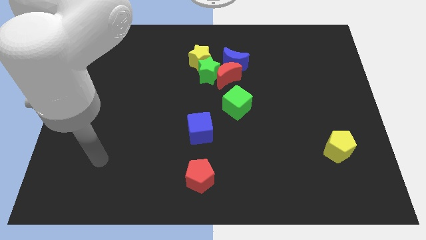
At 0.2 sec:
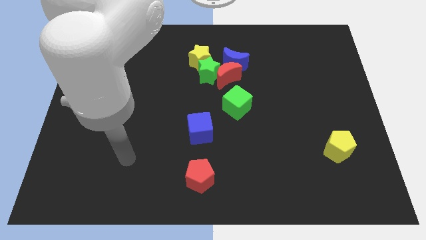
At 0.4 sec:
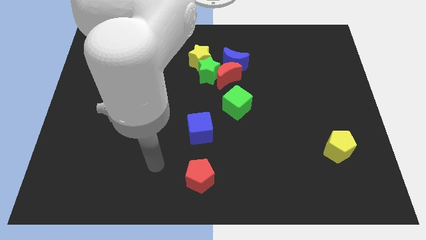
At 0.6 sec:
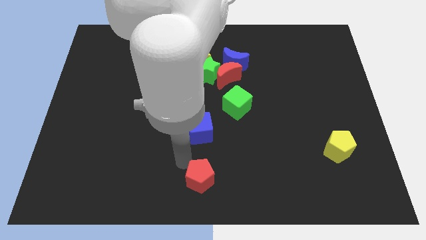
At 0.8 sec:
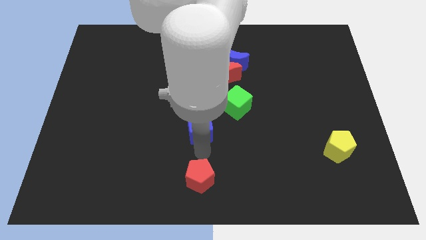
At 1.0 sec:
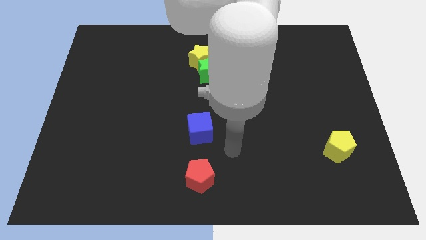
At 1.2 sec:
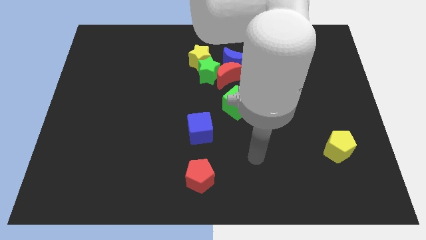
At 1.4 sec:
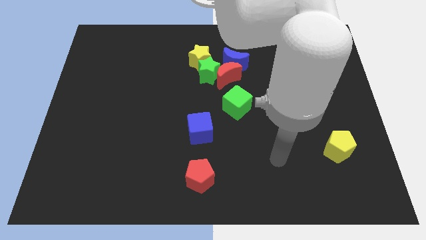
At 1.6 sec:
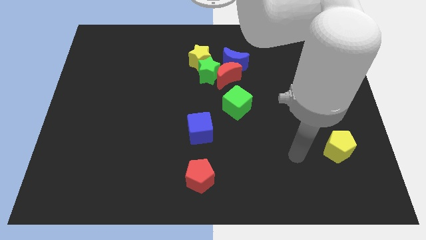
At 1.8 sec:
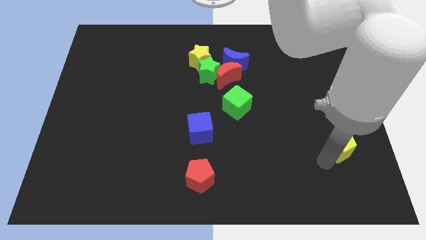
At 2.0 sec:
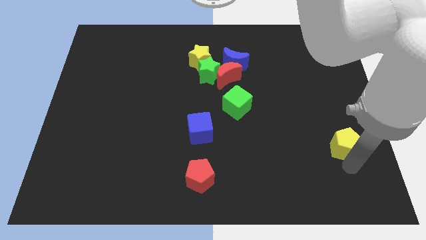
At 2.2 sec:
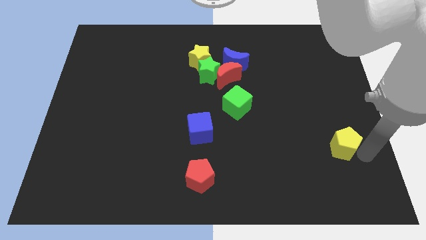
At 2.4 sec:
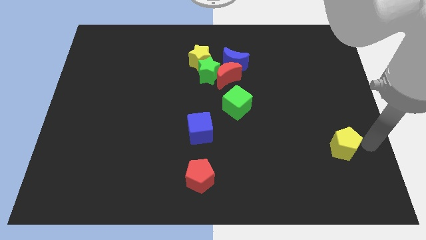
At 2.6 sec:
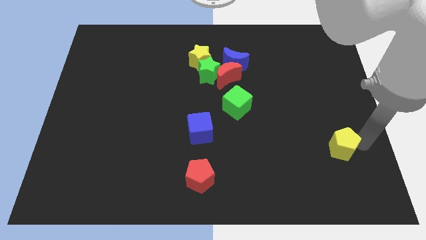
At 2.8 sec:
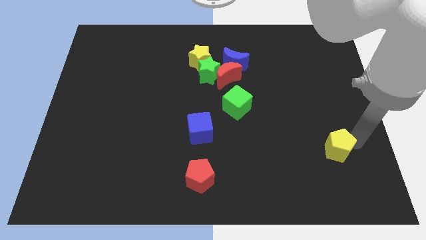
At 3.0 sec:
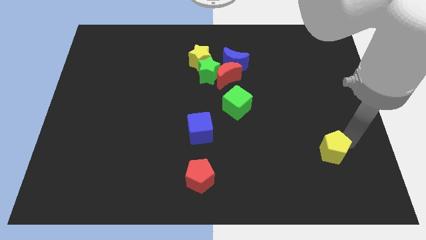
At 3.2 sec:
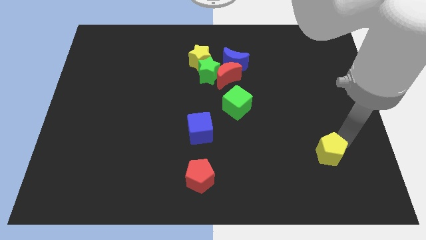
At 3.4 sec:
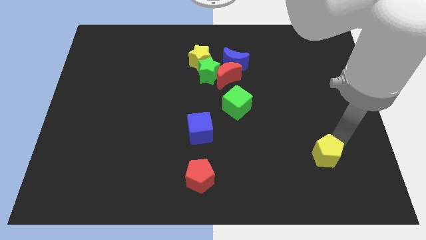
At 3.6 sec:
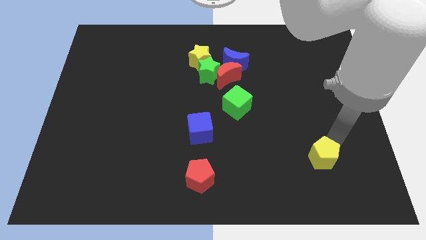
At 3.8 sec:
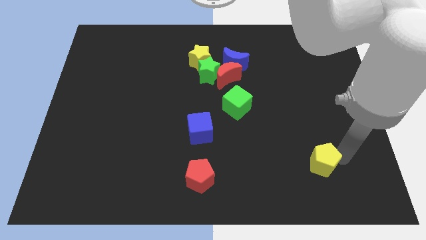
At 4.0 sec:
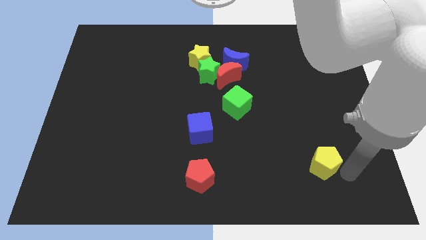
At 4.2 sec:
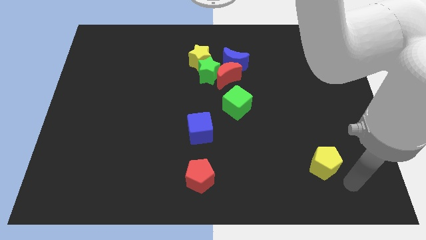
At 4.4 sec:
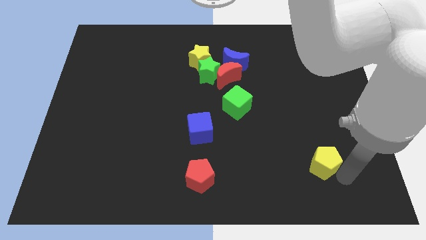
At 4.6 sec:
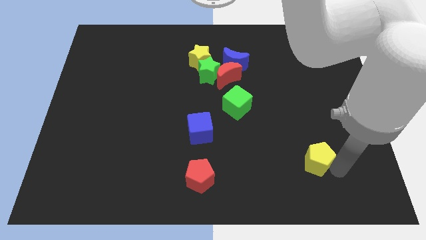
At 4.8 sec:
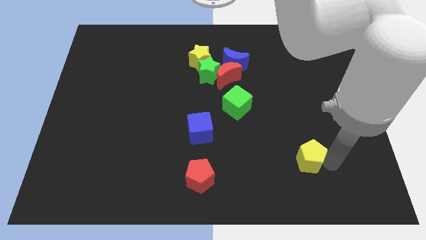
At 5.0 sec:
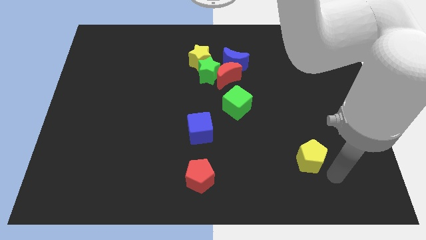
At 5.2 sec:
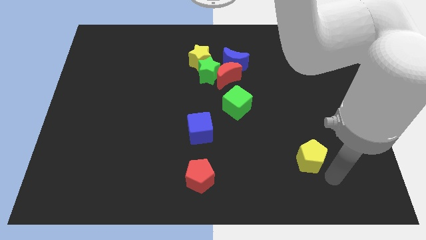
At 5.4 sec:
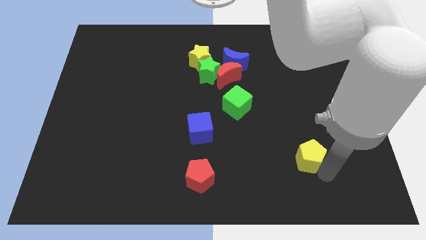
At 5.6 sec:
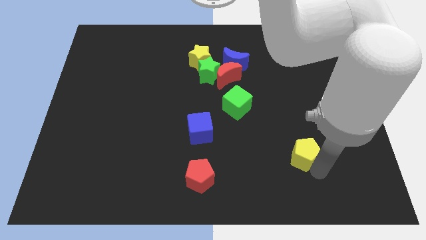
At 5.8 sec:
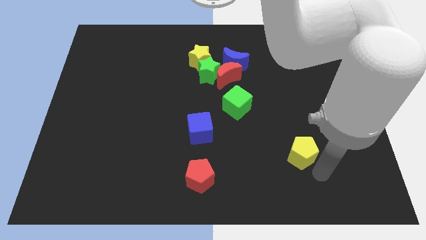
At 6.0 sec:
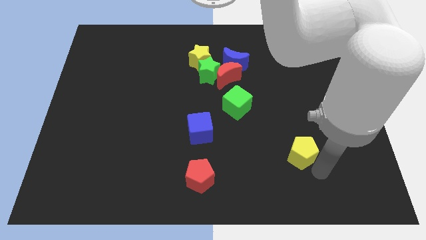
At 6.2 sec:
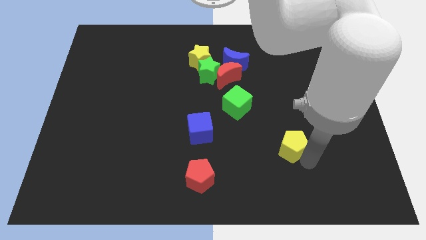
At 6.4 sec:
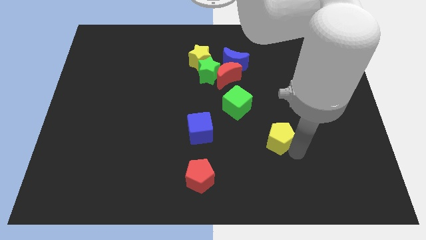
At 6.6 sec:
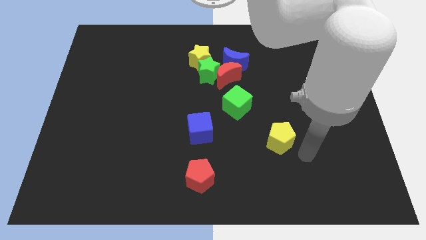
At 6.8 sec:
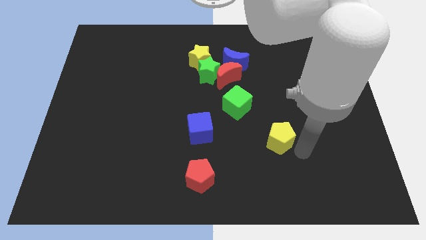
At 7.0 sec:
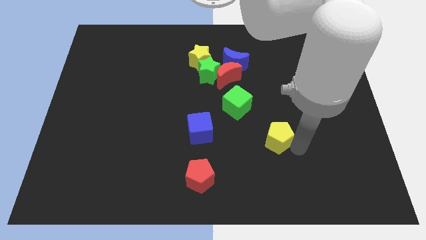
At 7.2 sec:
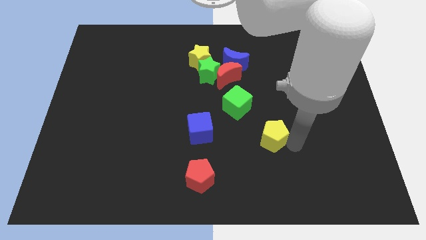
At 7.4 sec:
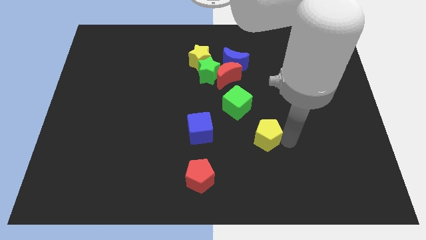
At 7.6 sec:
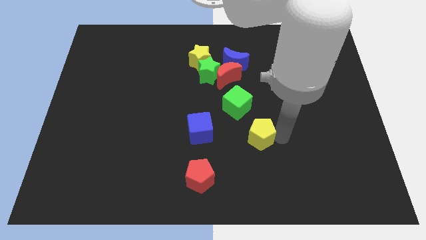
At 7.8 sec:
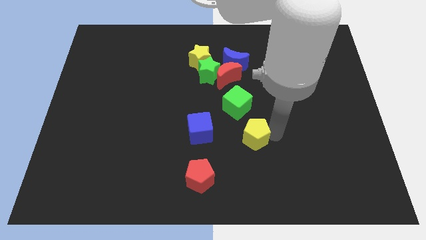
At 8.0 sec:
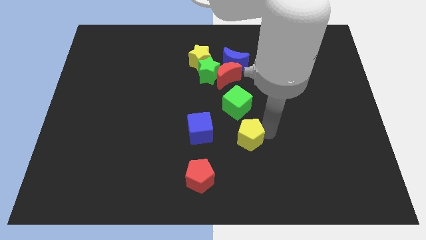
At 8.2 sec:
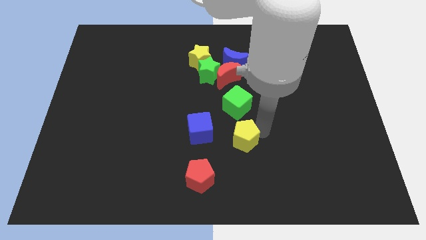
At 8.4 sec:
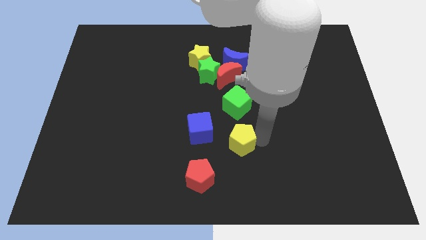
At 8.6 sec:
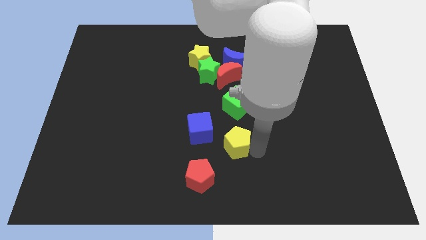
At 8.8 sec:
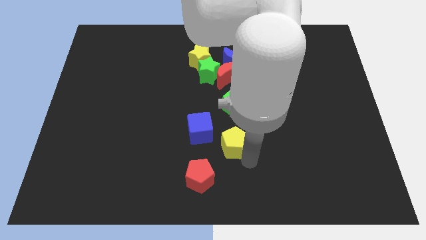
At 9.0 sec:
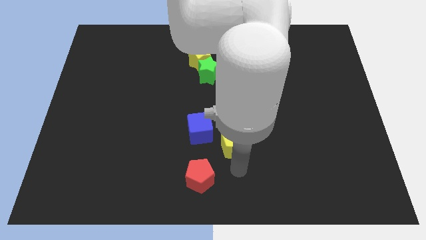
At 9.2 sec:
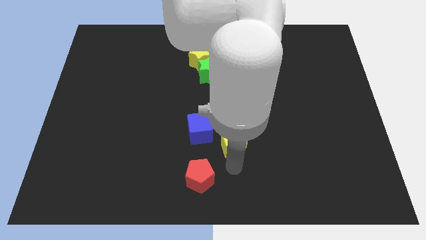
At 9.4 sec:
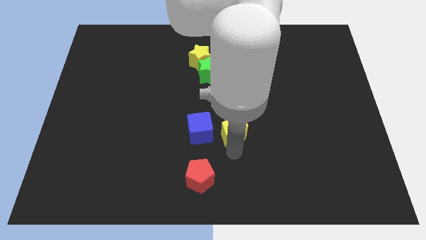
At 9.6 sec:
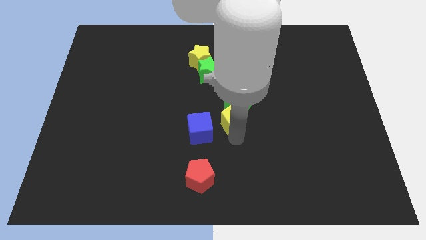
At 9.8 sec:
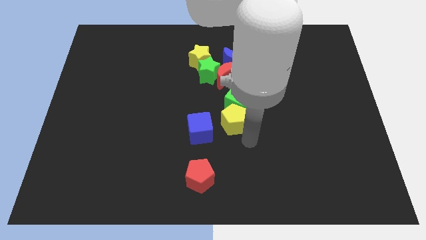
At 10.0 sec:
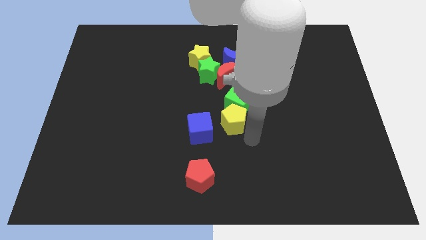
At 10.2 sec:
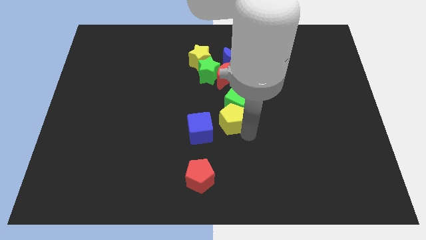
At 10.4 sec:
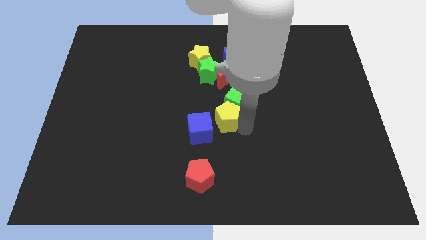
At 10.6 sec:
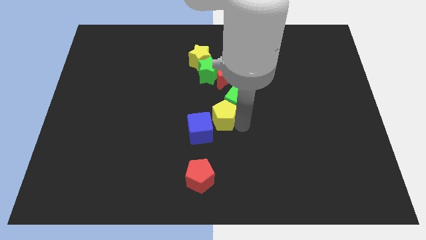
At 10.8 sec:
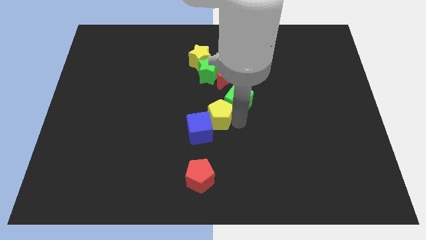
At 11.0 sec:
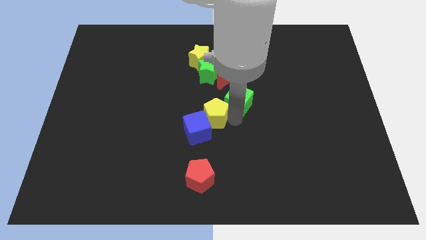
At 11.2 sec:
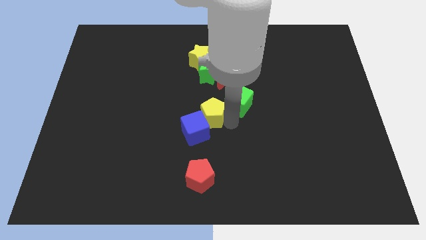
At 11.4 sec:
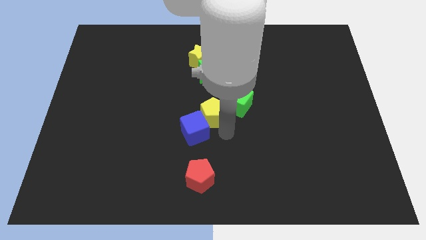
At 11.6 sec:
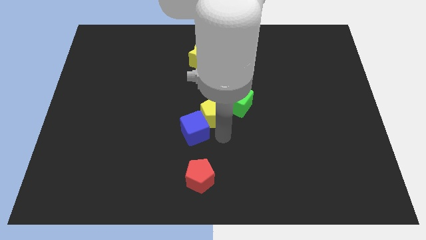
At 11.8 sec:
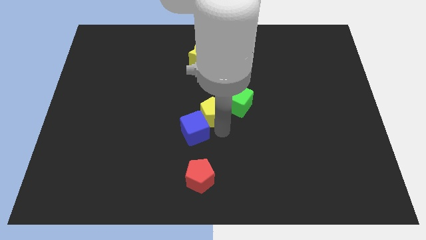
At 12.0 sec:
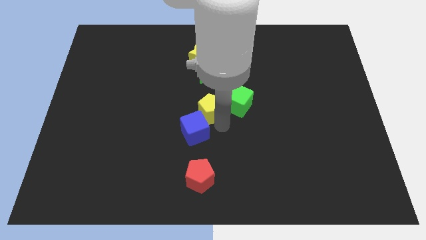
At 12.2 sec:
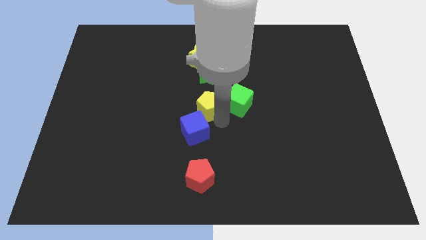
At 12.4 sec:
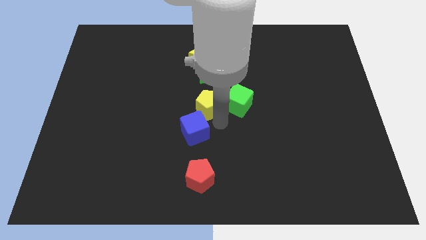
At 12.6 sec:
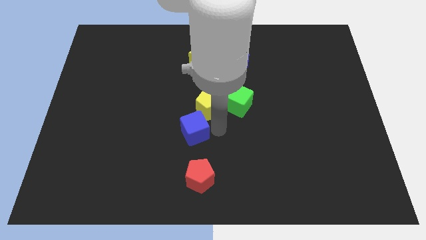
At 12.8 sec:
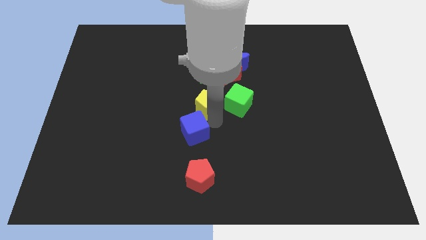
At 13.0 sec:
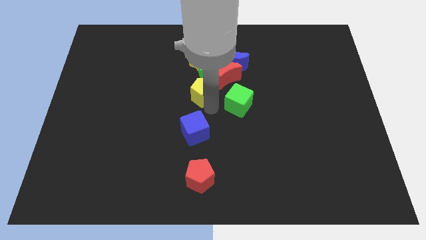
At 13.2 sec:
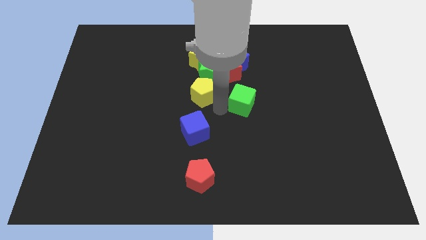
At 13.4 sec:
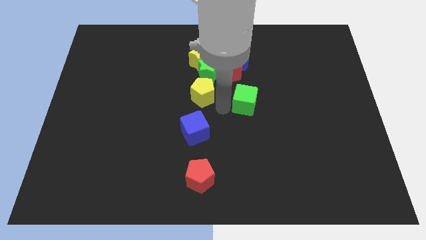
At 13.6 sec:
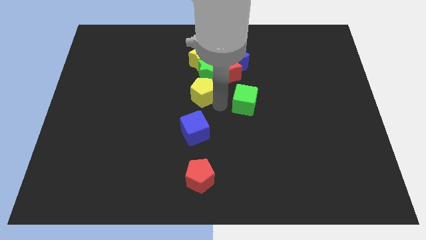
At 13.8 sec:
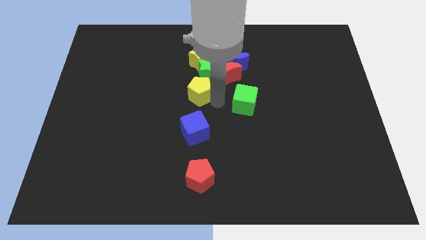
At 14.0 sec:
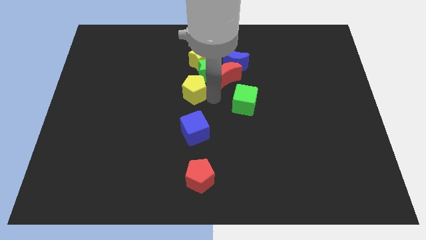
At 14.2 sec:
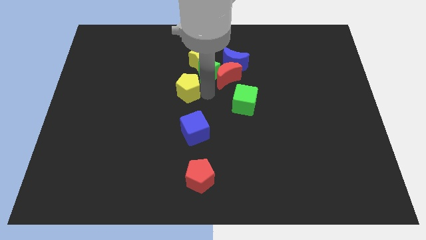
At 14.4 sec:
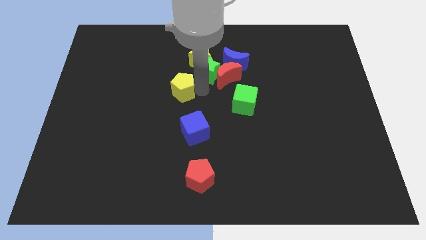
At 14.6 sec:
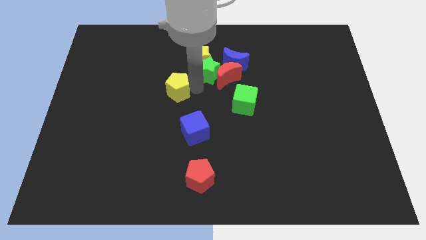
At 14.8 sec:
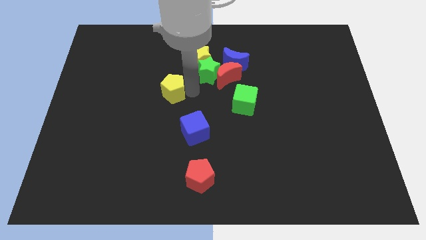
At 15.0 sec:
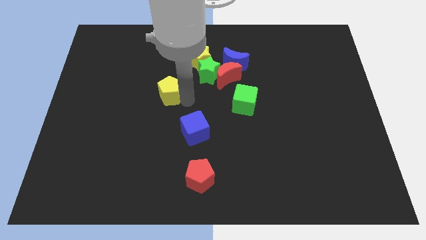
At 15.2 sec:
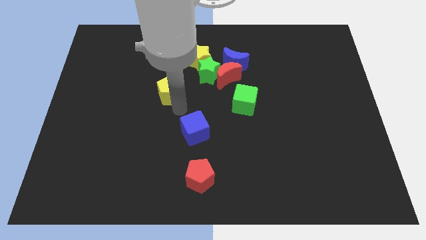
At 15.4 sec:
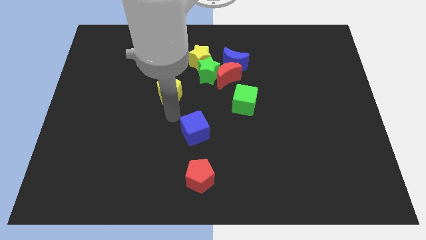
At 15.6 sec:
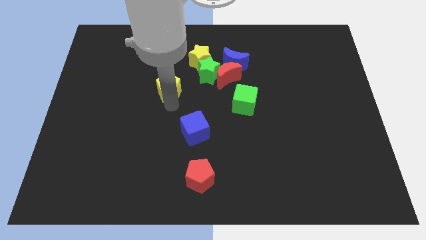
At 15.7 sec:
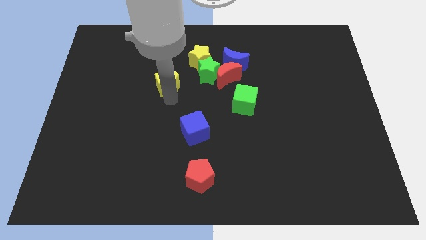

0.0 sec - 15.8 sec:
put the yellow pentagon just left of the green star
